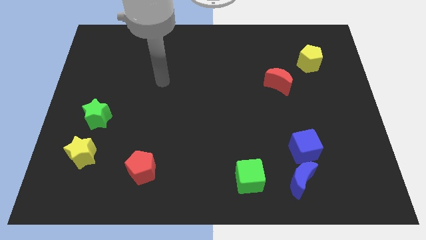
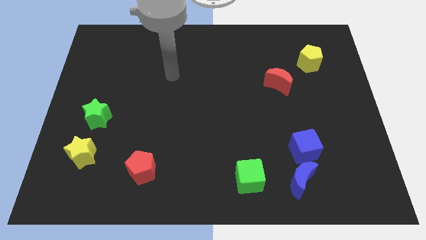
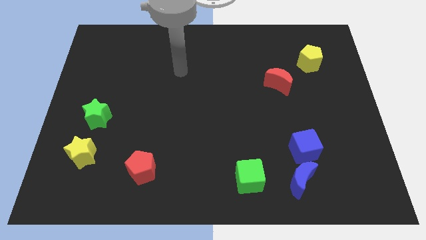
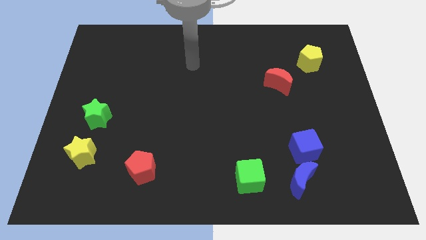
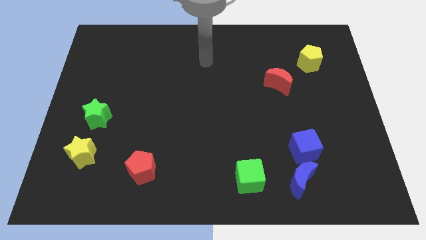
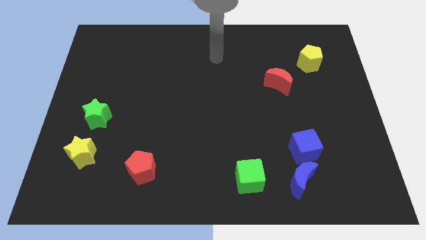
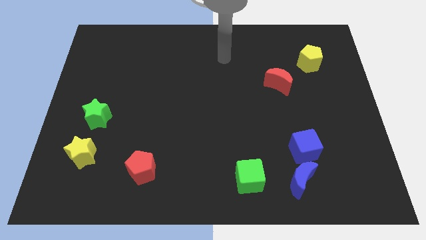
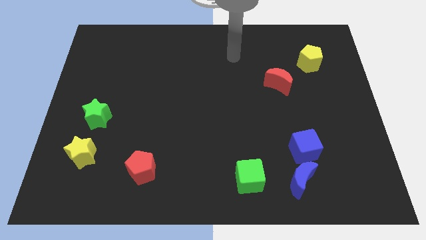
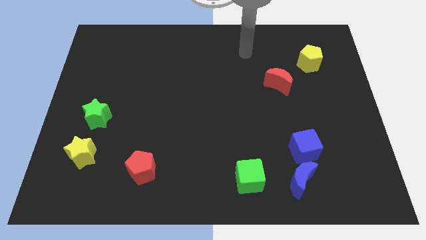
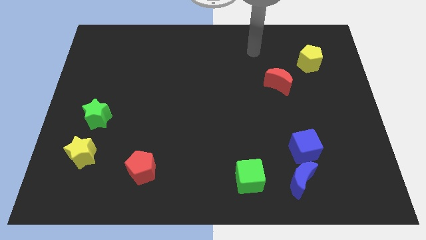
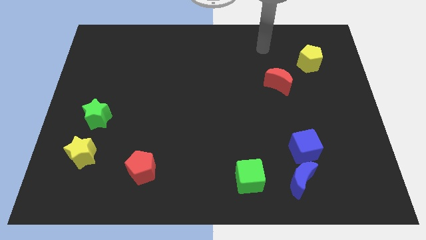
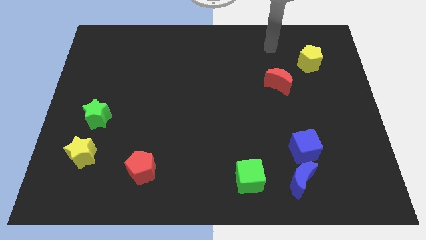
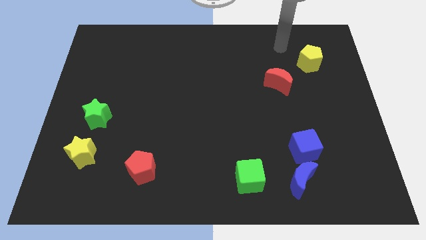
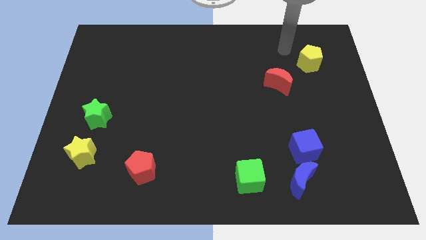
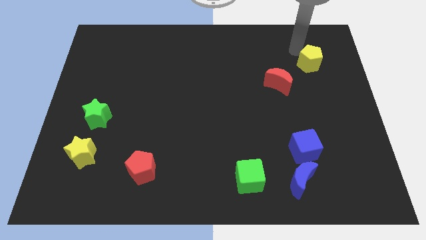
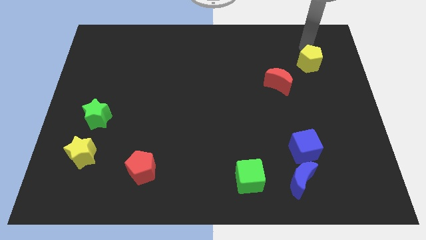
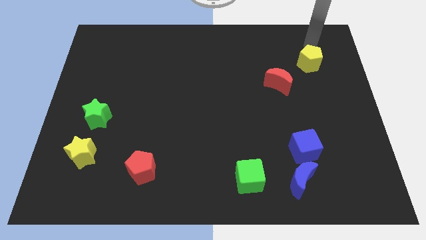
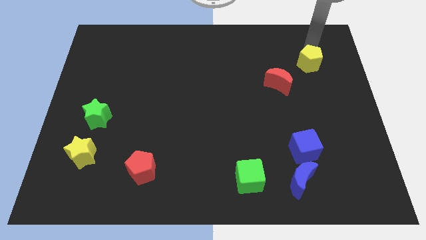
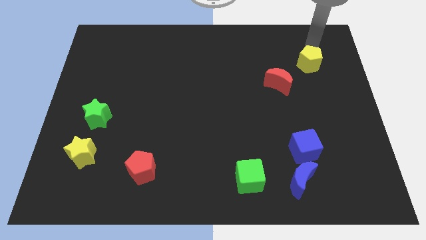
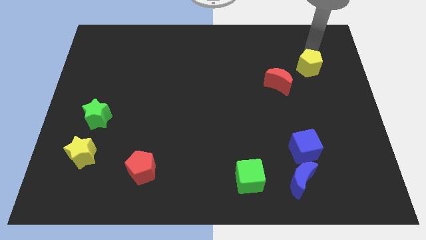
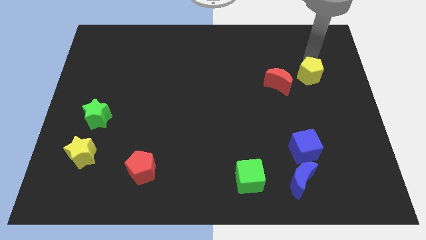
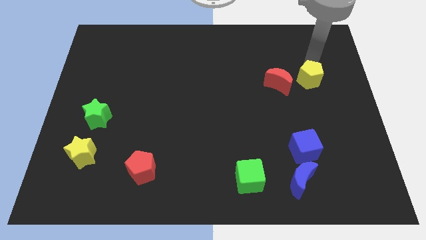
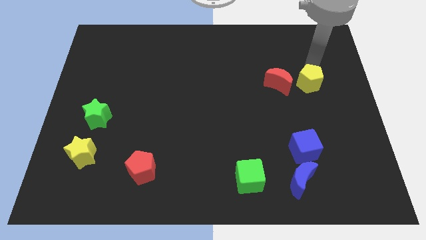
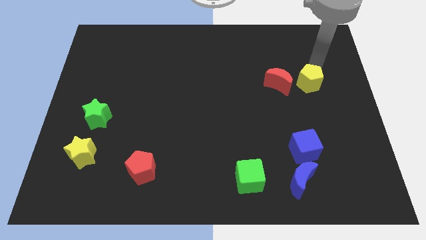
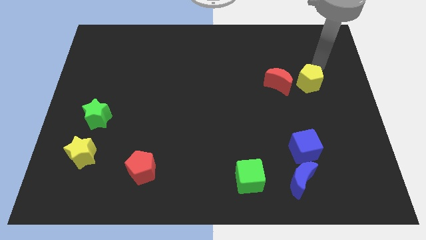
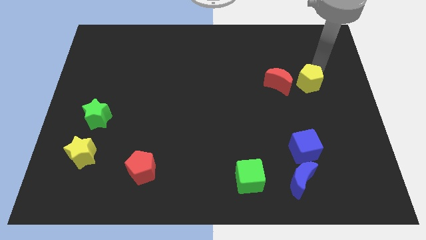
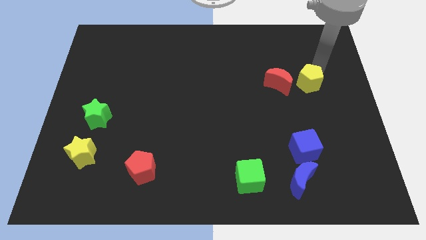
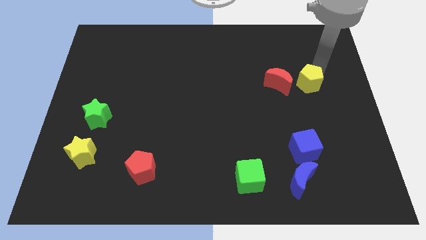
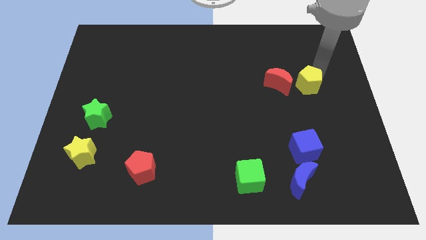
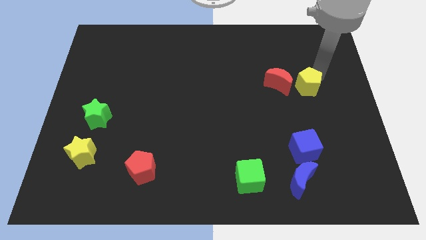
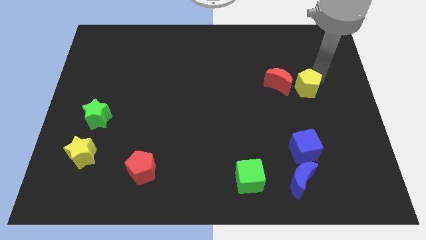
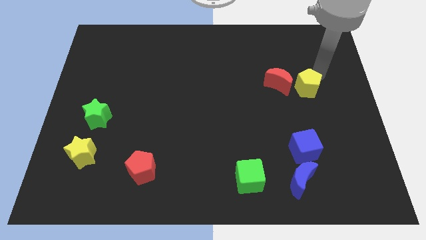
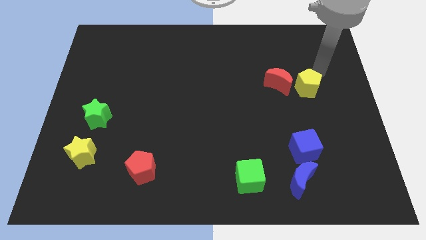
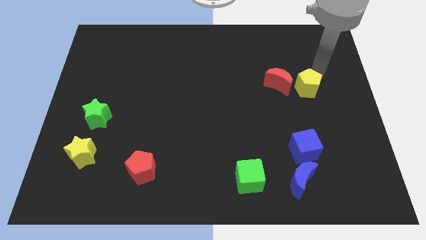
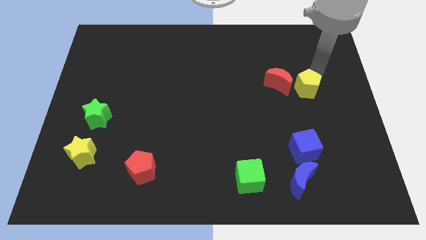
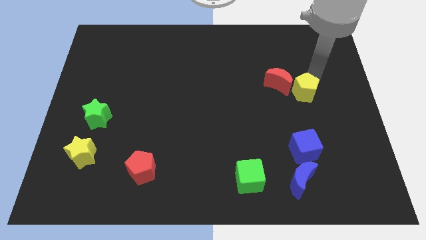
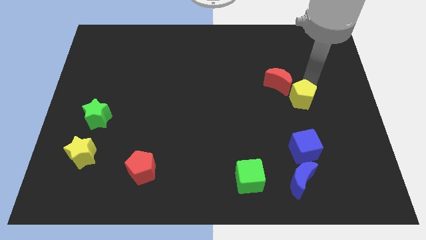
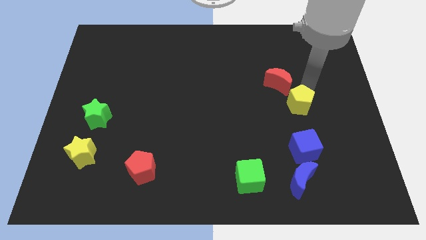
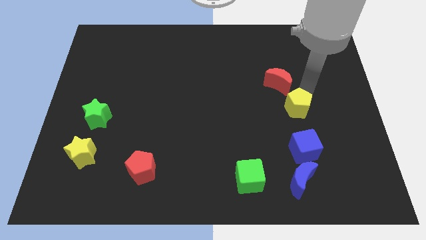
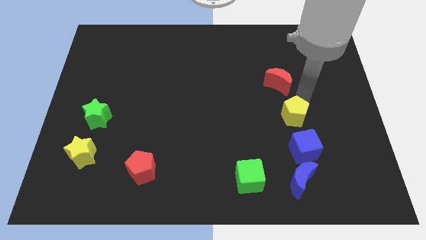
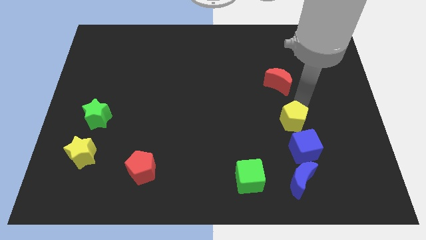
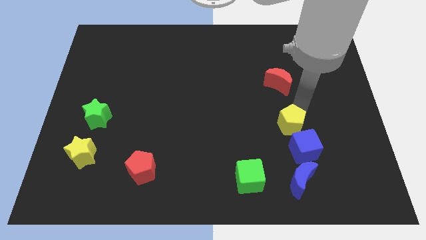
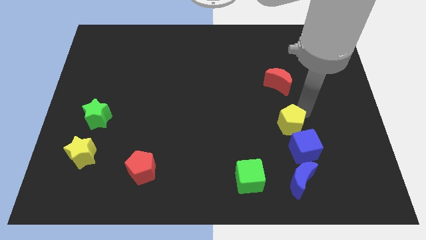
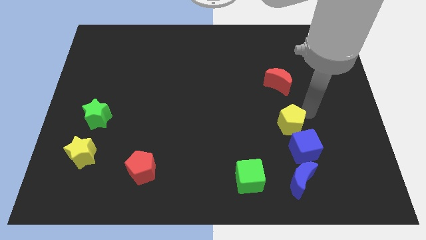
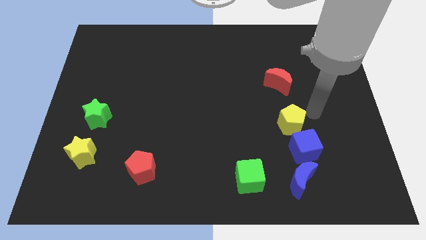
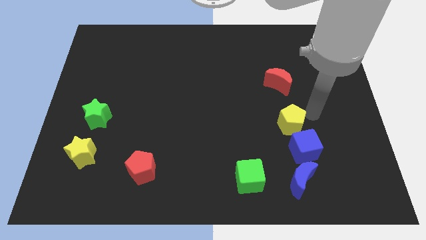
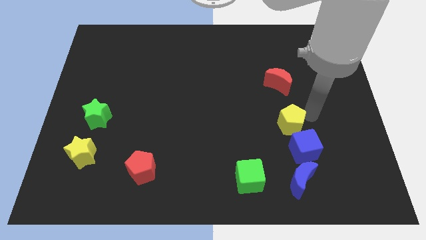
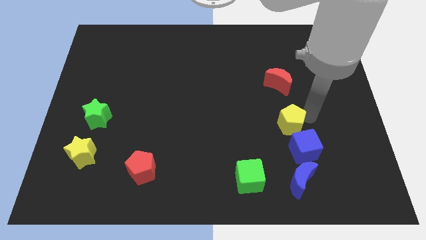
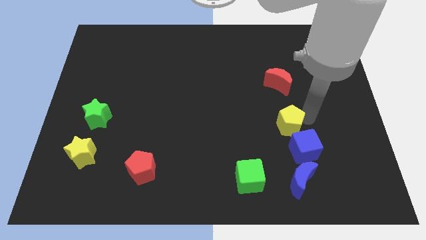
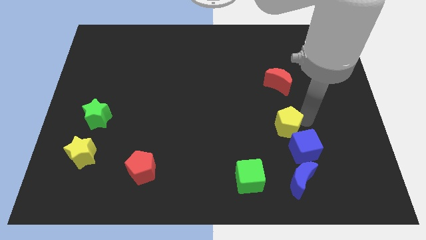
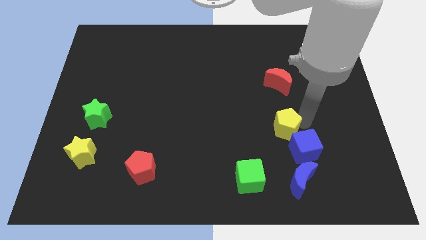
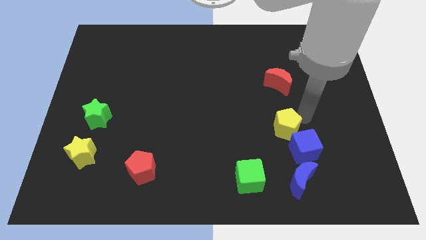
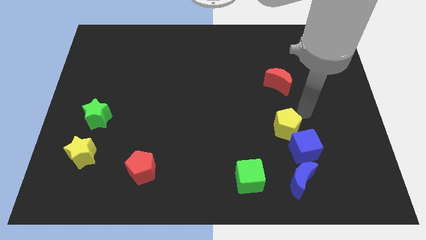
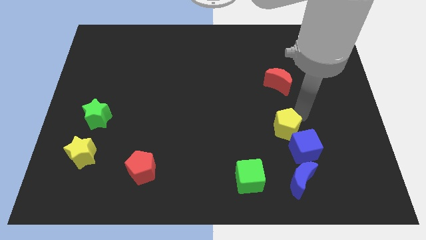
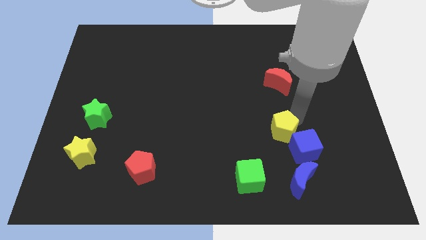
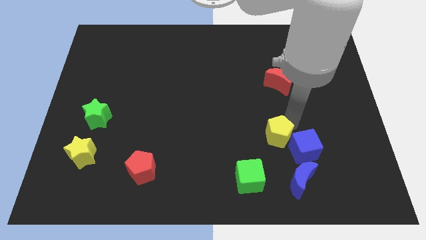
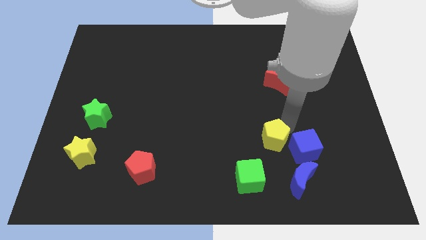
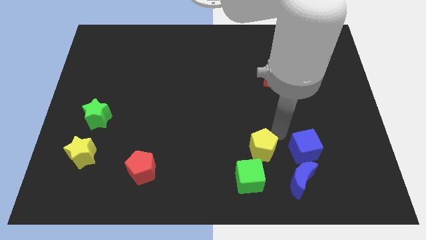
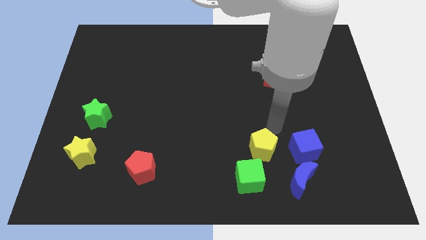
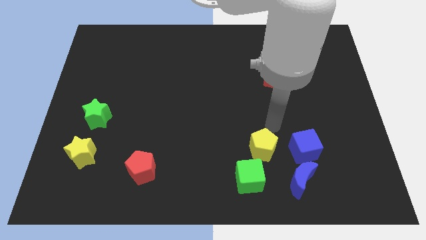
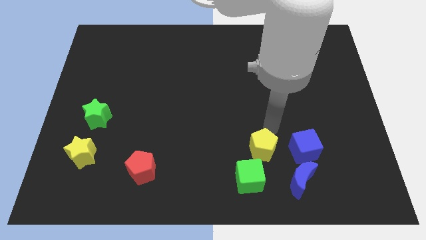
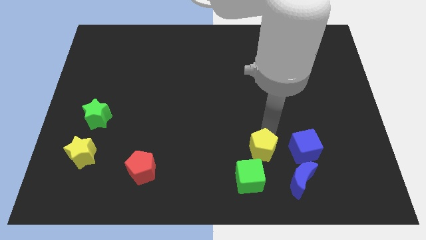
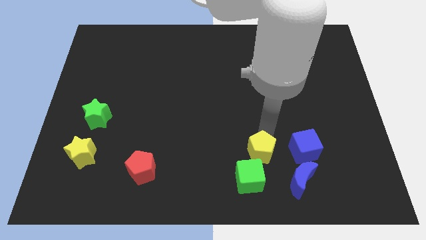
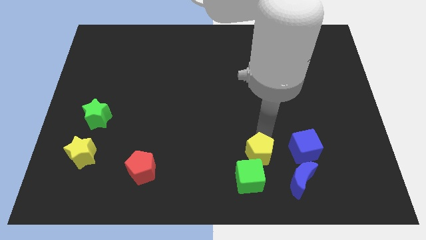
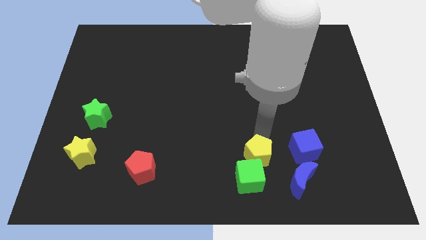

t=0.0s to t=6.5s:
put the yellow pentagon towards the green cube

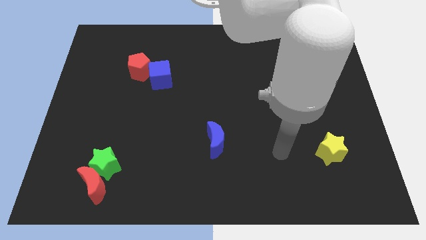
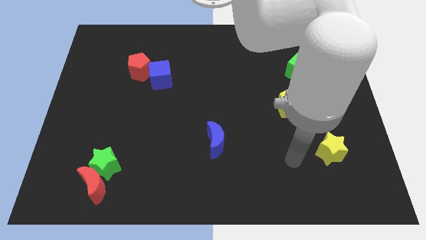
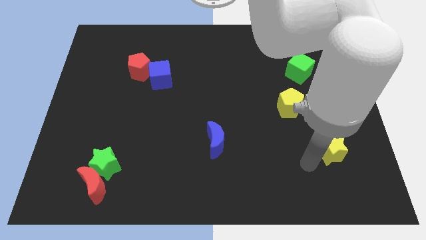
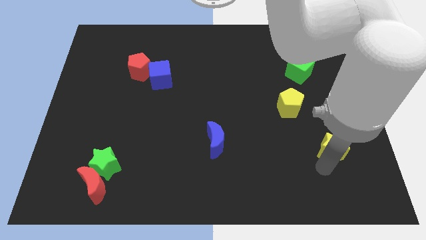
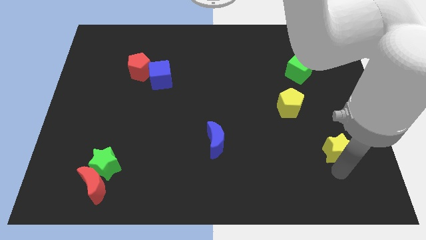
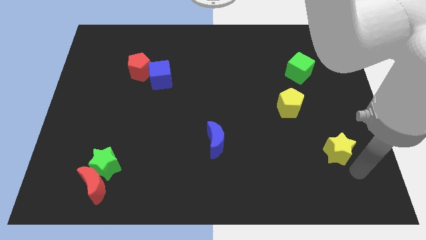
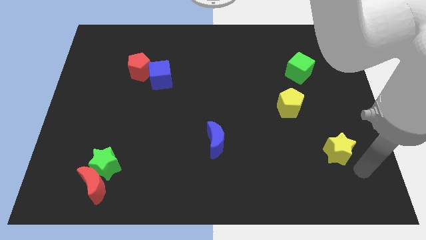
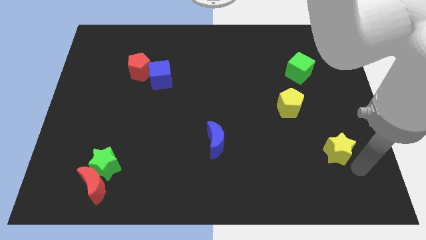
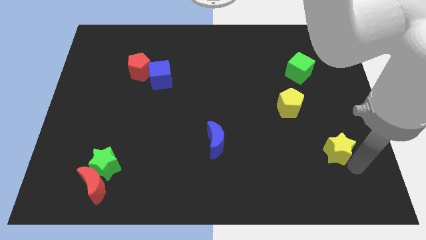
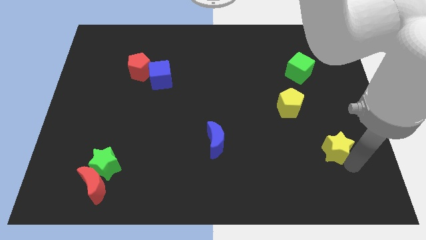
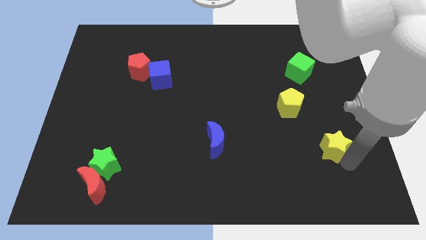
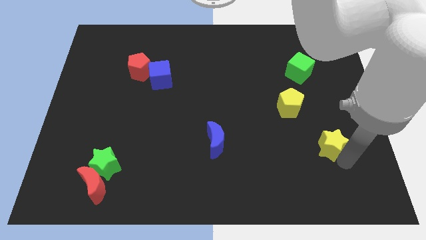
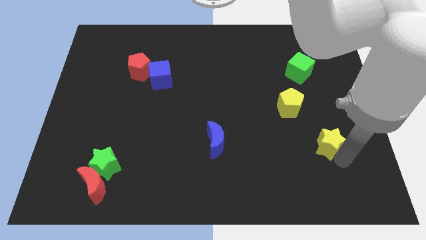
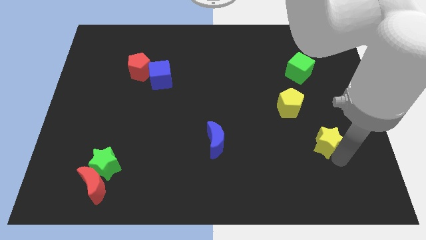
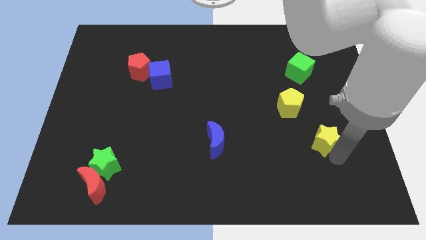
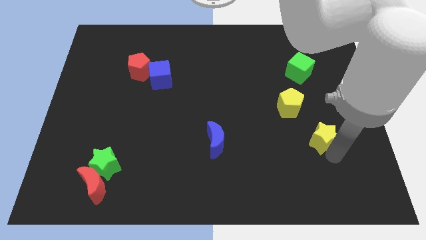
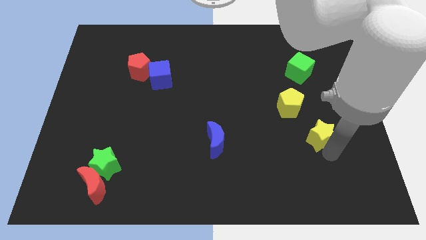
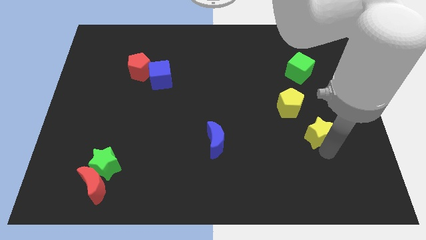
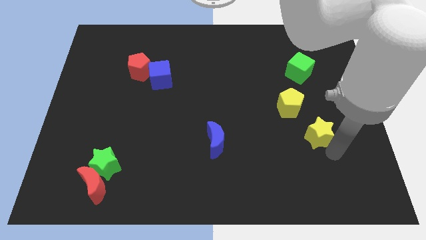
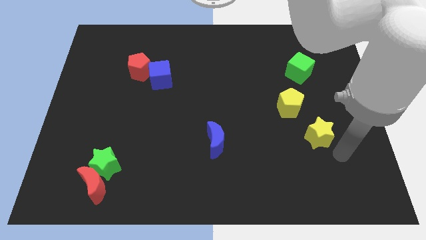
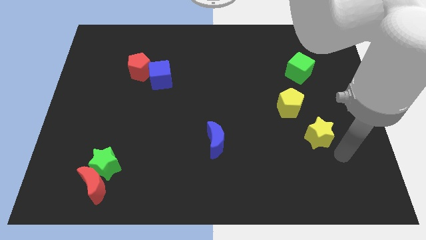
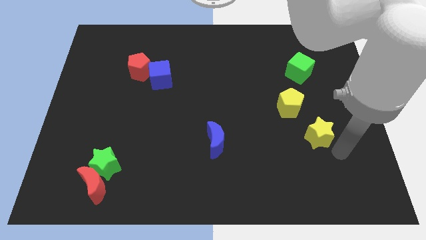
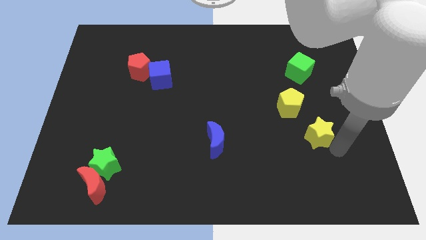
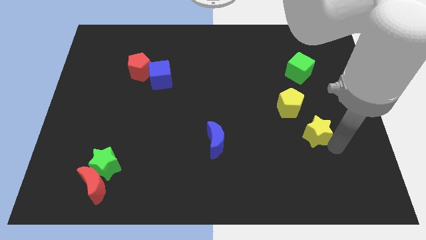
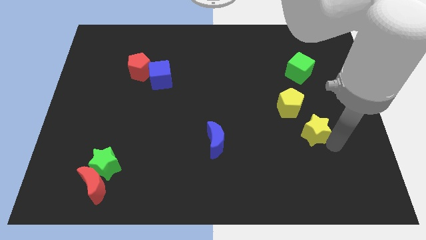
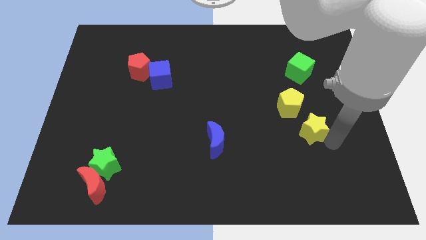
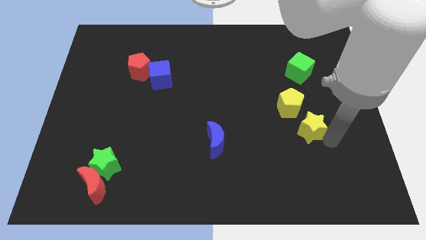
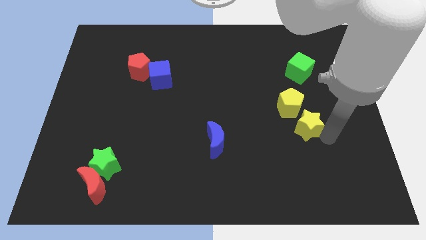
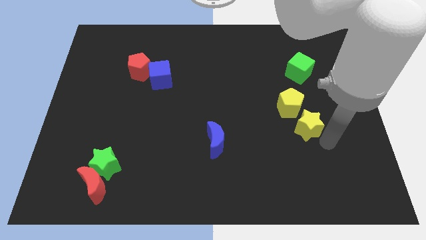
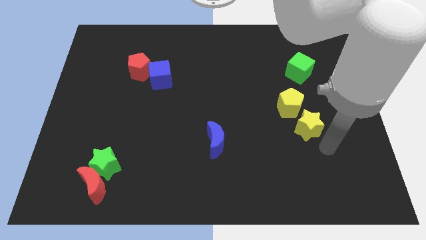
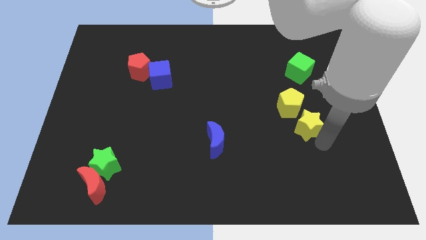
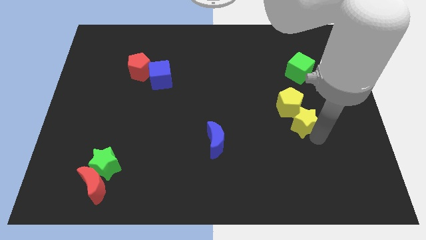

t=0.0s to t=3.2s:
push the yellow star to the yellow pentagon
